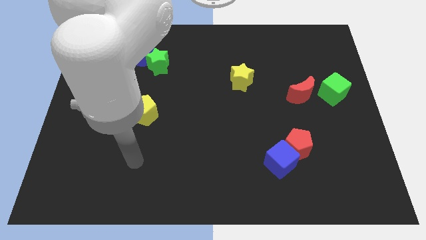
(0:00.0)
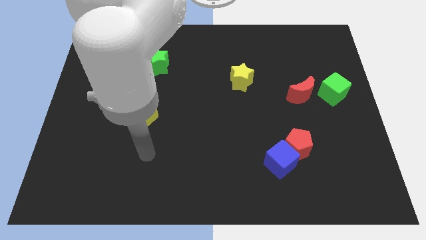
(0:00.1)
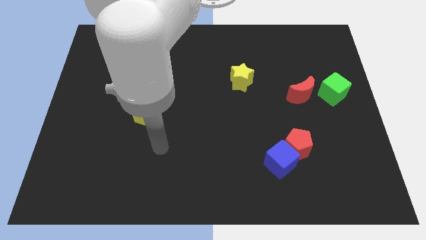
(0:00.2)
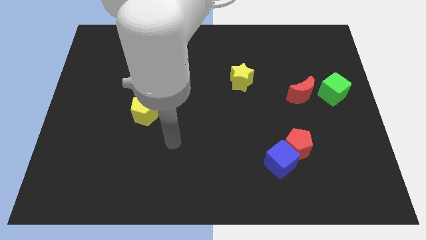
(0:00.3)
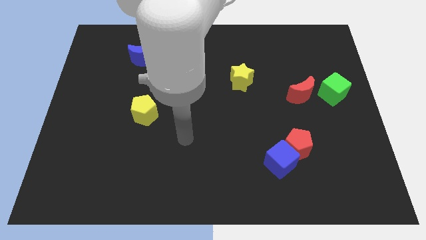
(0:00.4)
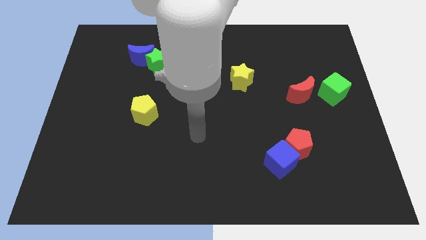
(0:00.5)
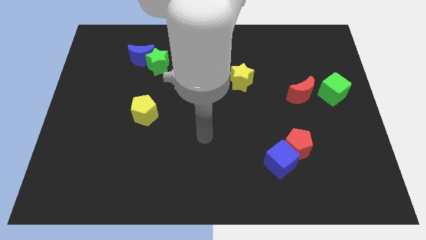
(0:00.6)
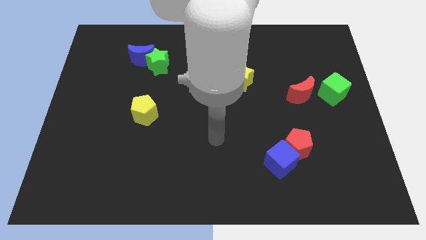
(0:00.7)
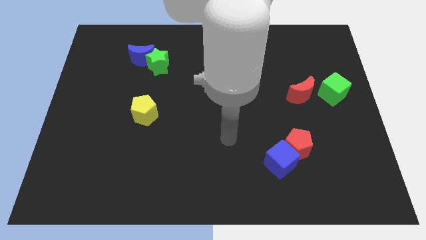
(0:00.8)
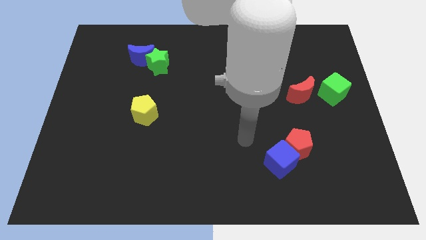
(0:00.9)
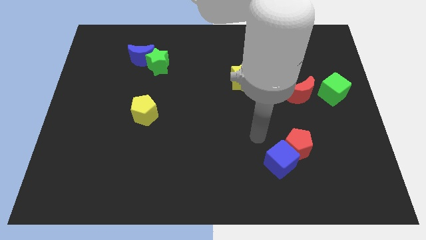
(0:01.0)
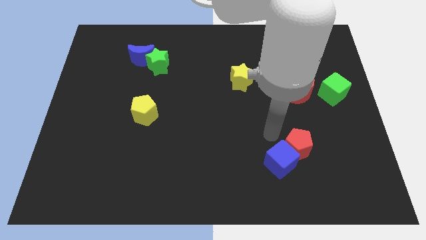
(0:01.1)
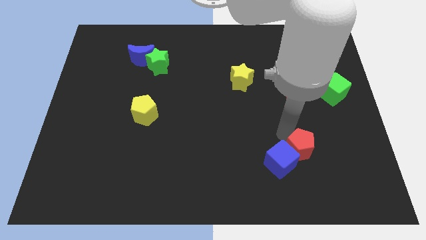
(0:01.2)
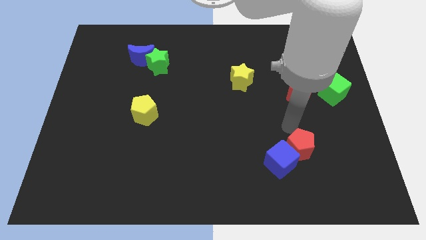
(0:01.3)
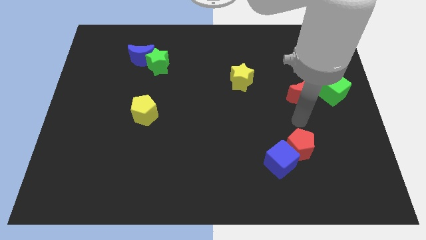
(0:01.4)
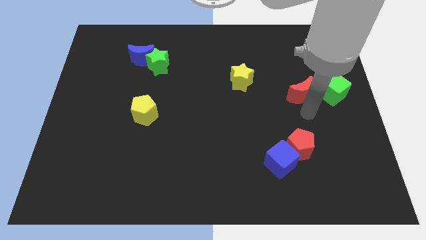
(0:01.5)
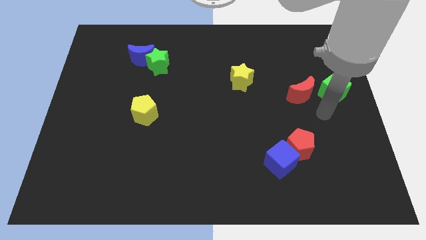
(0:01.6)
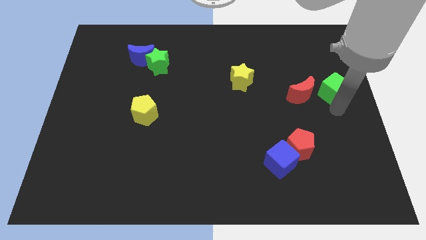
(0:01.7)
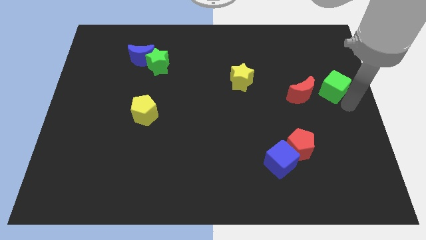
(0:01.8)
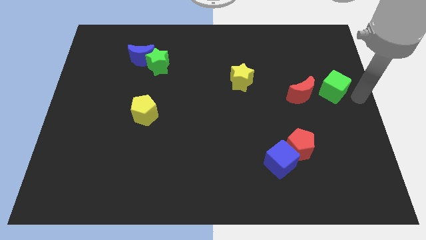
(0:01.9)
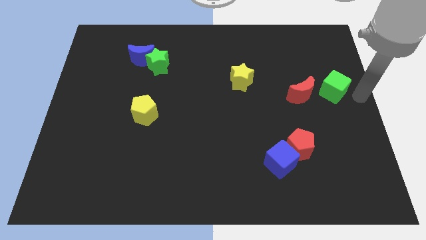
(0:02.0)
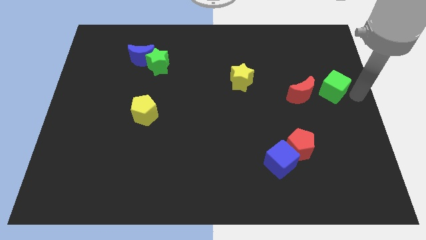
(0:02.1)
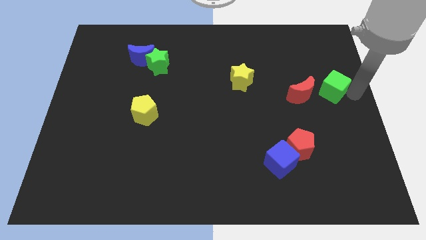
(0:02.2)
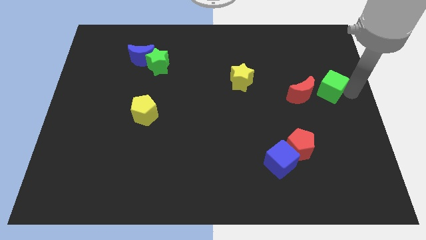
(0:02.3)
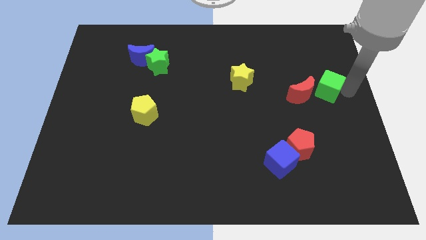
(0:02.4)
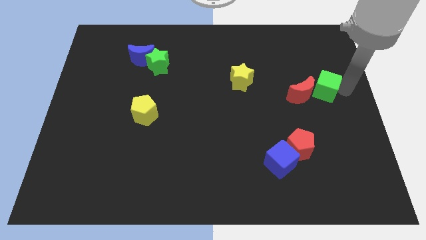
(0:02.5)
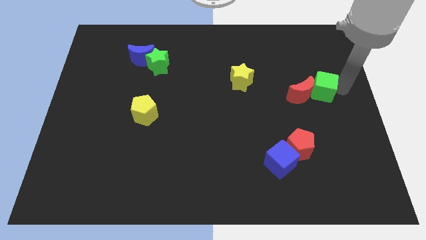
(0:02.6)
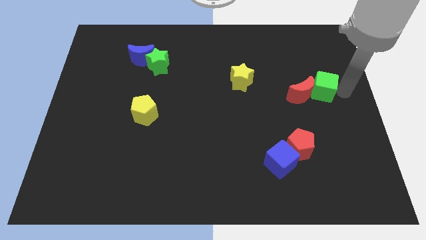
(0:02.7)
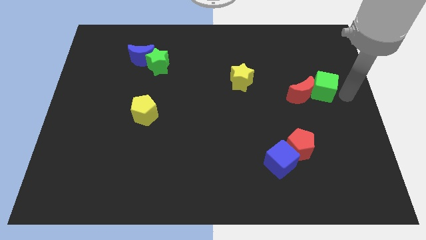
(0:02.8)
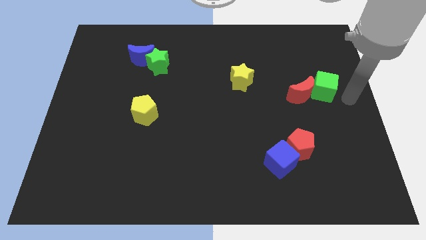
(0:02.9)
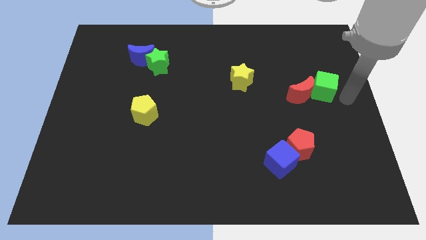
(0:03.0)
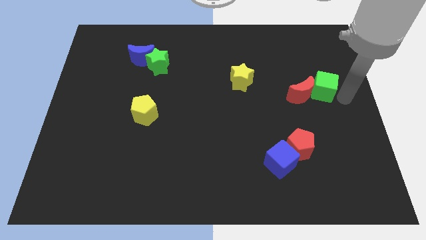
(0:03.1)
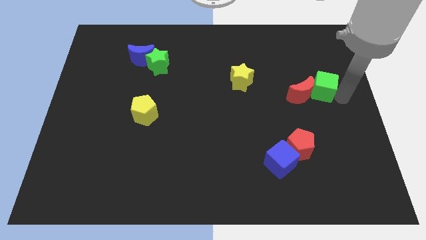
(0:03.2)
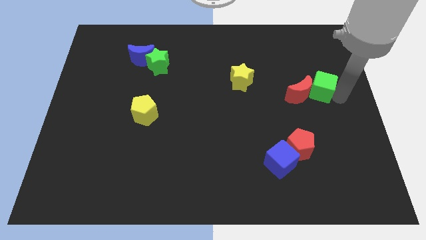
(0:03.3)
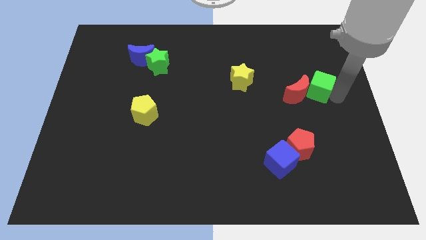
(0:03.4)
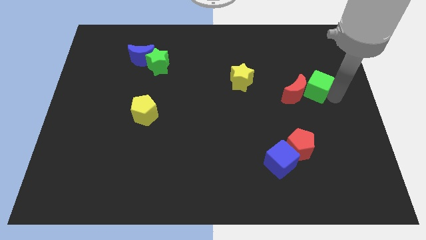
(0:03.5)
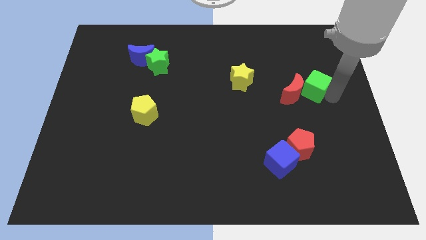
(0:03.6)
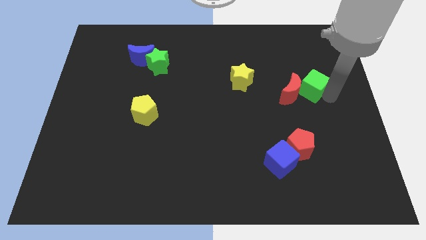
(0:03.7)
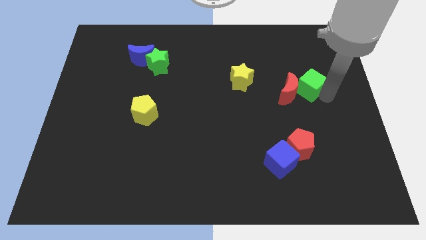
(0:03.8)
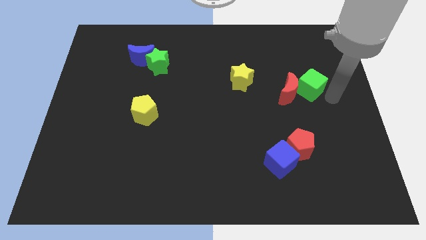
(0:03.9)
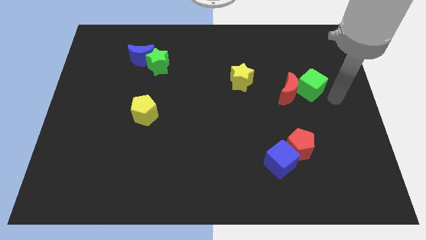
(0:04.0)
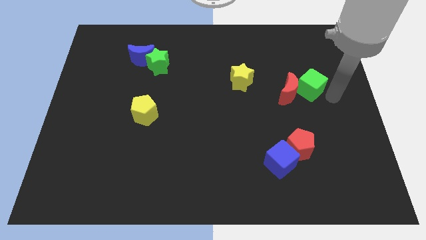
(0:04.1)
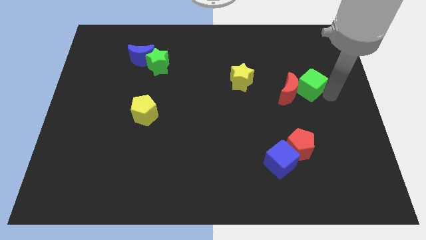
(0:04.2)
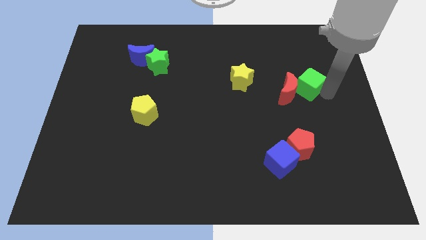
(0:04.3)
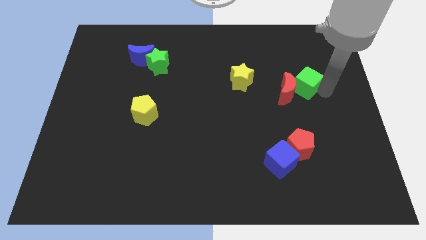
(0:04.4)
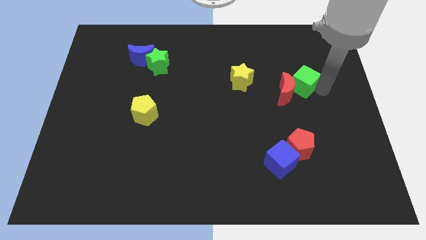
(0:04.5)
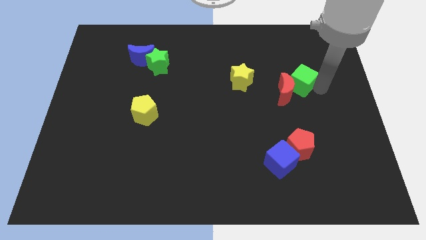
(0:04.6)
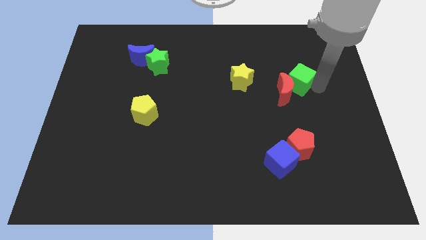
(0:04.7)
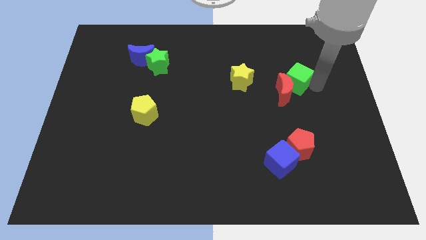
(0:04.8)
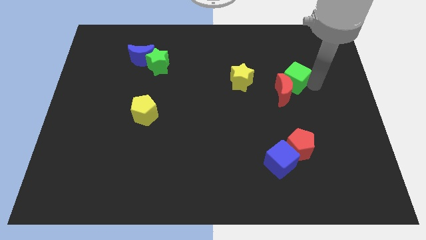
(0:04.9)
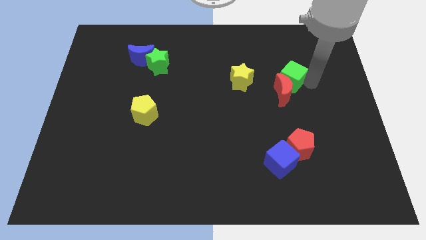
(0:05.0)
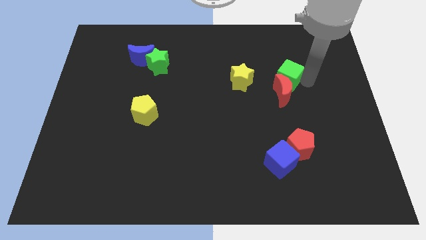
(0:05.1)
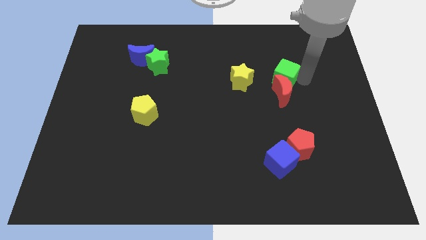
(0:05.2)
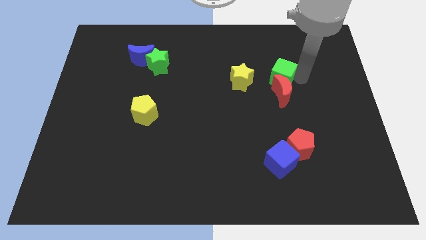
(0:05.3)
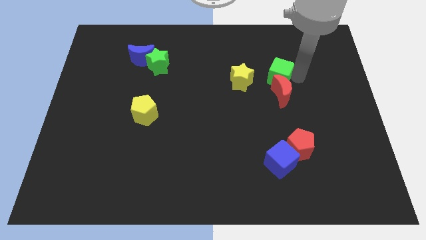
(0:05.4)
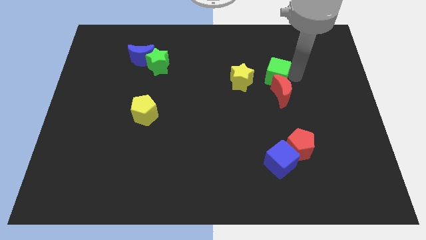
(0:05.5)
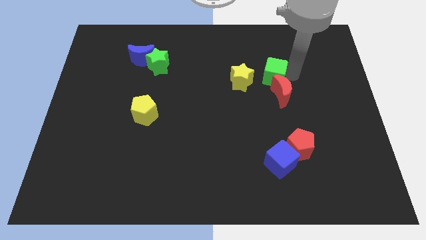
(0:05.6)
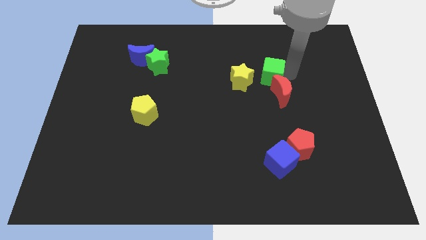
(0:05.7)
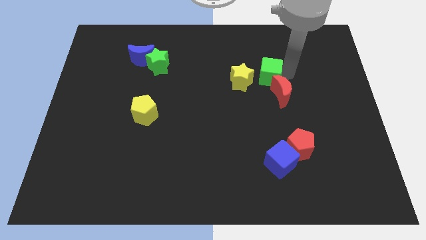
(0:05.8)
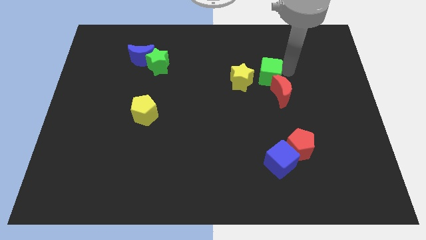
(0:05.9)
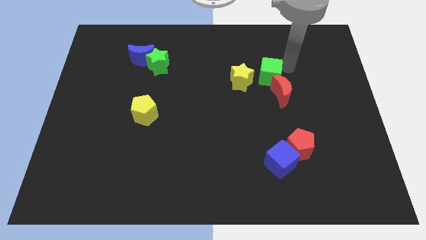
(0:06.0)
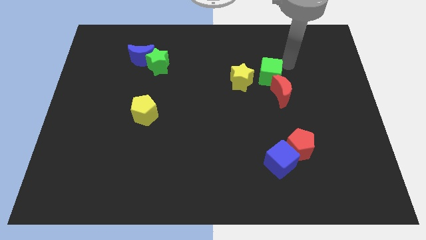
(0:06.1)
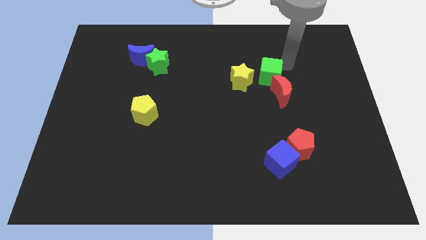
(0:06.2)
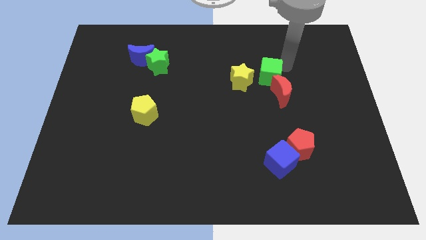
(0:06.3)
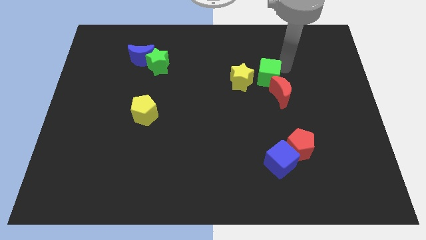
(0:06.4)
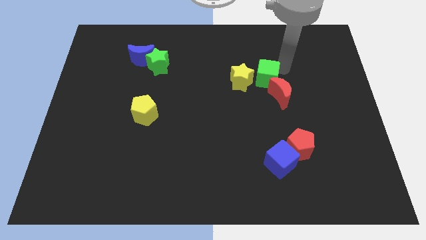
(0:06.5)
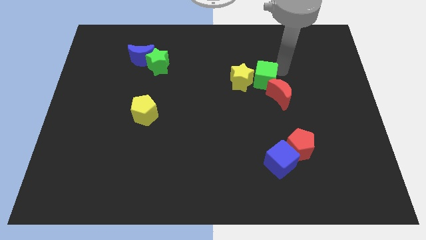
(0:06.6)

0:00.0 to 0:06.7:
push the green cube next to the yellow star

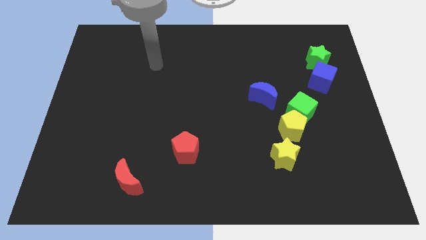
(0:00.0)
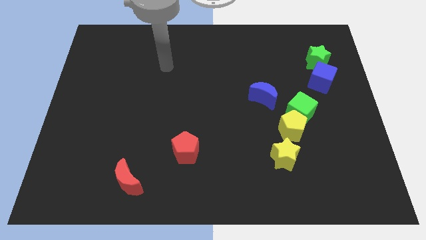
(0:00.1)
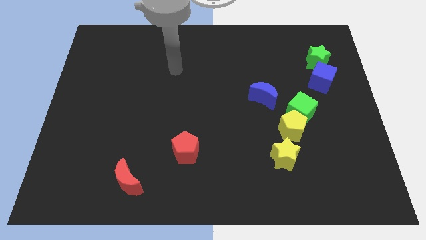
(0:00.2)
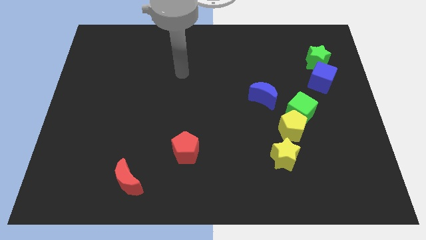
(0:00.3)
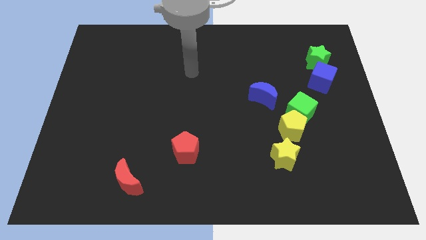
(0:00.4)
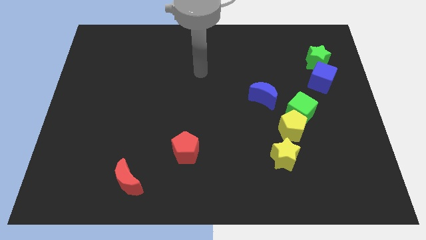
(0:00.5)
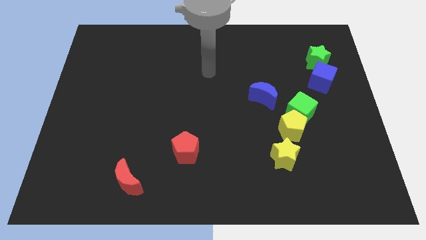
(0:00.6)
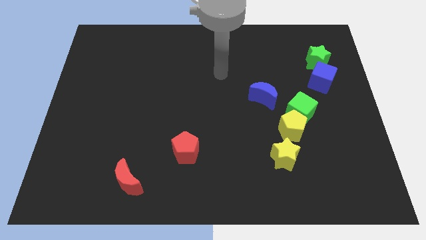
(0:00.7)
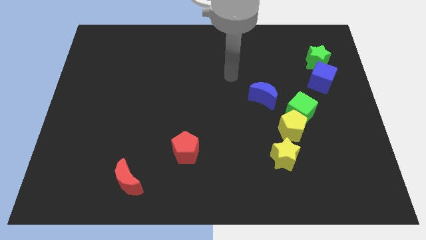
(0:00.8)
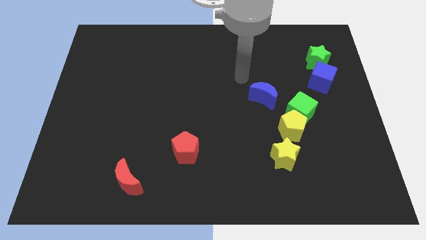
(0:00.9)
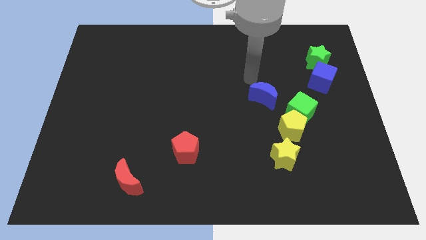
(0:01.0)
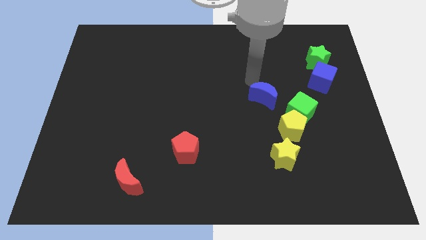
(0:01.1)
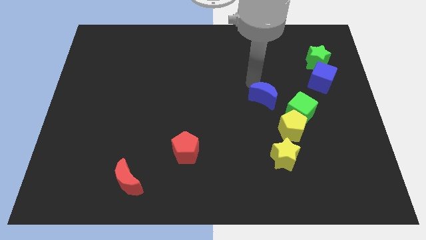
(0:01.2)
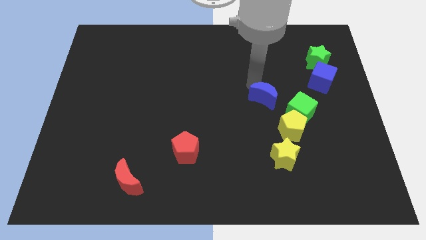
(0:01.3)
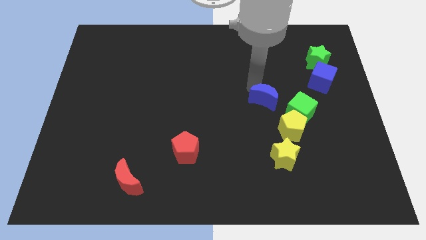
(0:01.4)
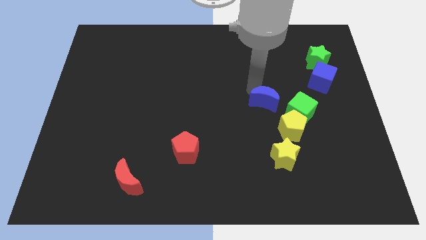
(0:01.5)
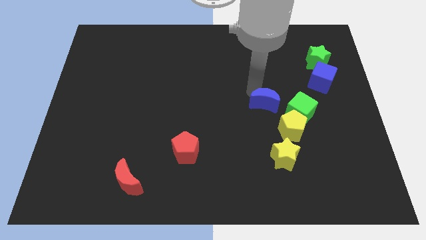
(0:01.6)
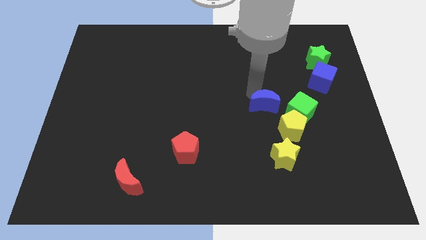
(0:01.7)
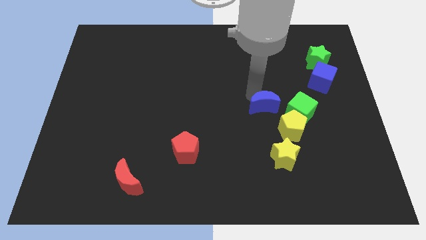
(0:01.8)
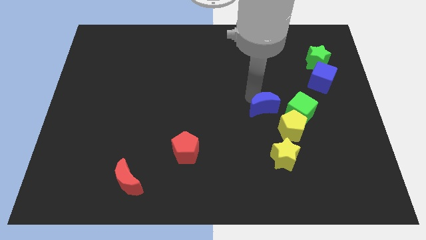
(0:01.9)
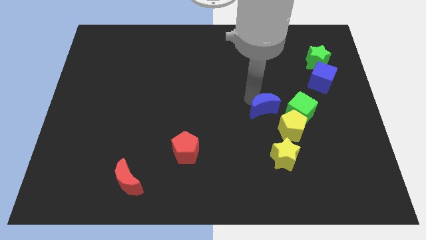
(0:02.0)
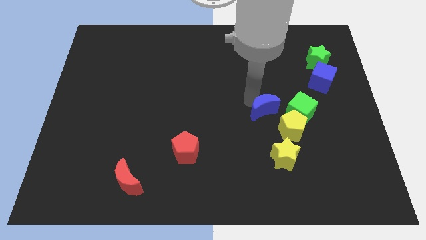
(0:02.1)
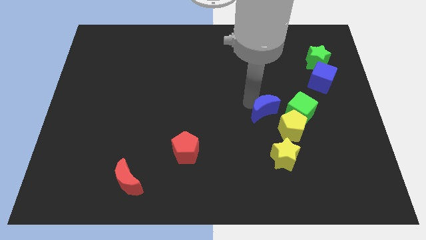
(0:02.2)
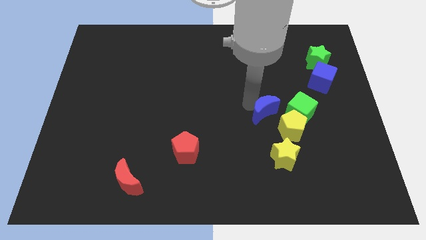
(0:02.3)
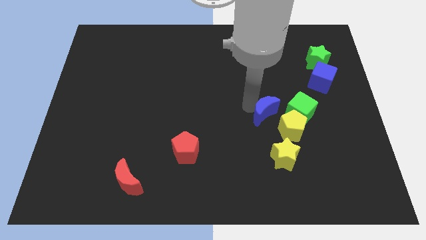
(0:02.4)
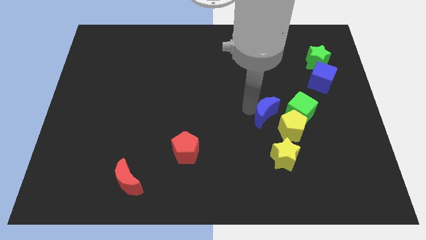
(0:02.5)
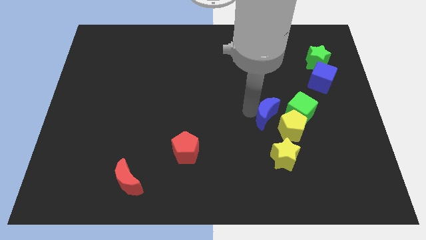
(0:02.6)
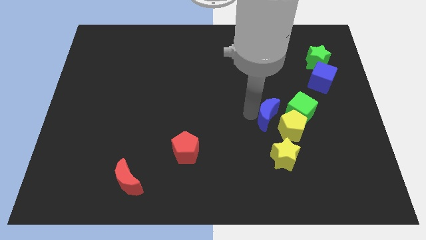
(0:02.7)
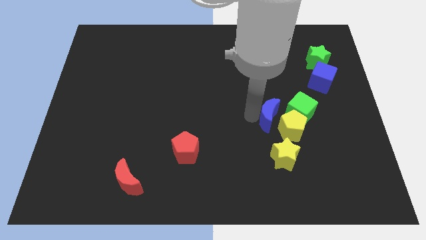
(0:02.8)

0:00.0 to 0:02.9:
move the blue moon next to the yellow pentagon
